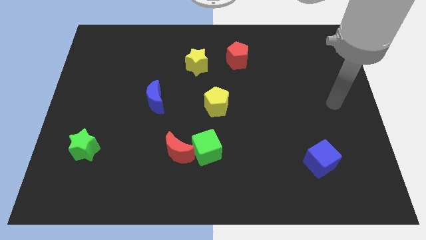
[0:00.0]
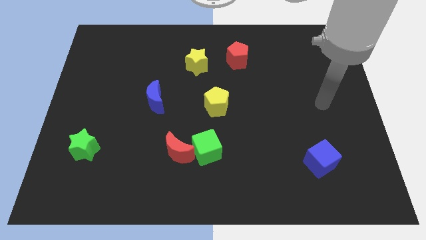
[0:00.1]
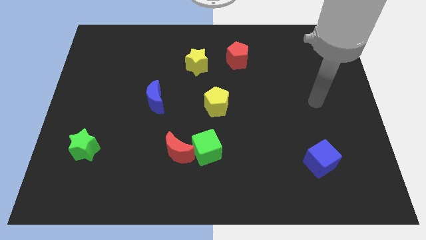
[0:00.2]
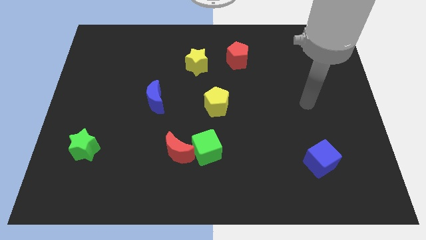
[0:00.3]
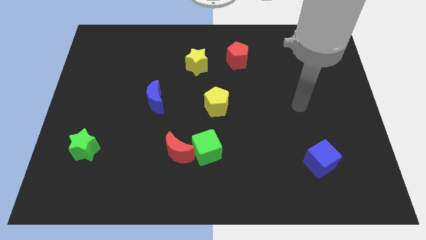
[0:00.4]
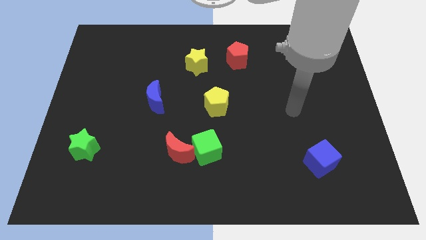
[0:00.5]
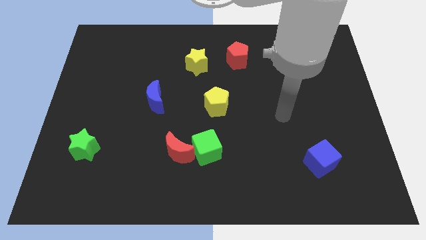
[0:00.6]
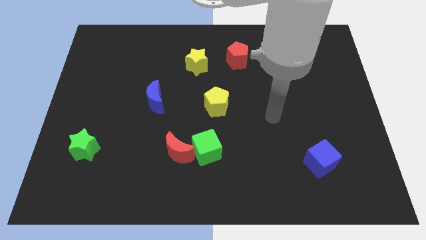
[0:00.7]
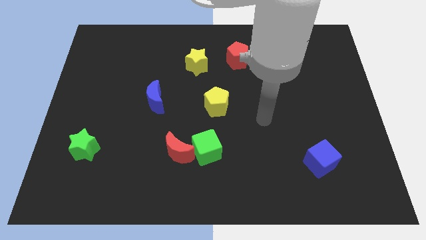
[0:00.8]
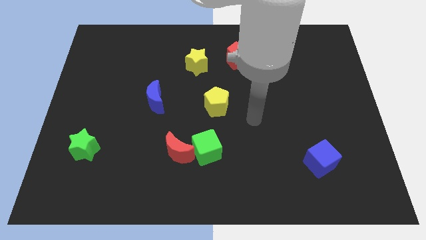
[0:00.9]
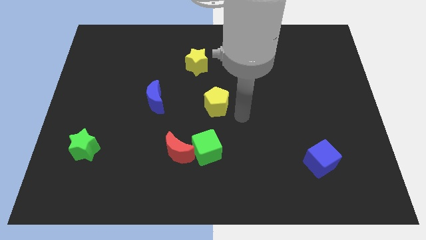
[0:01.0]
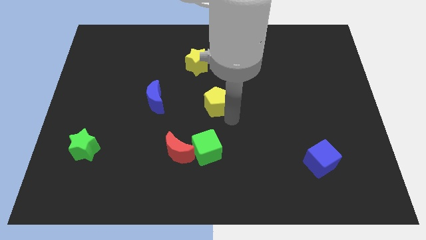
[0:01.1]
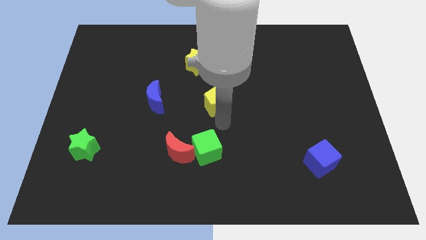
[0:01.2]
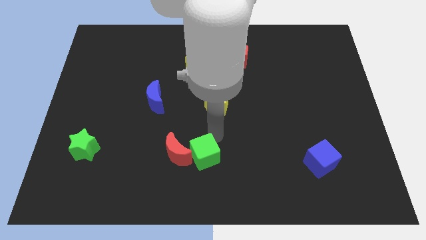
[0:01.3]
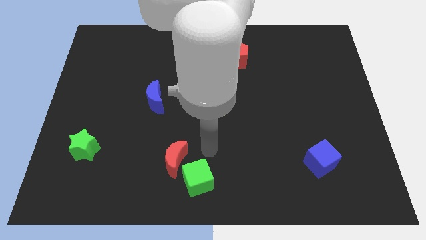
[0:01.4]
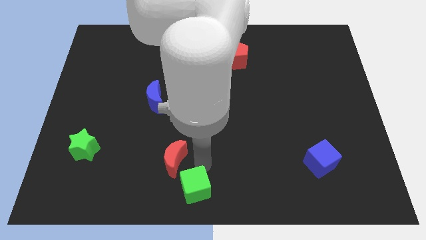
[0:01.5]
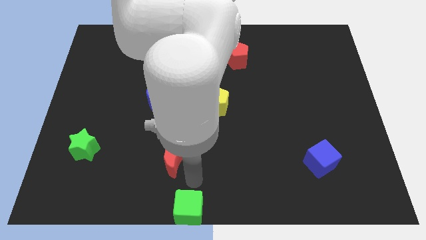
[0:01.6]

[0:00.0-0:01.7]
move the red moon away from the green cube

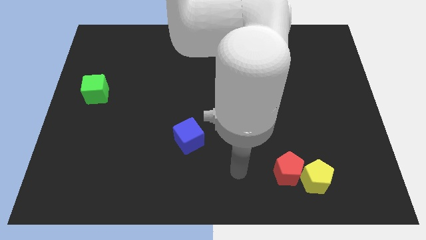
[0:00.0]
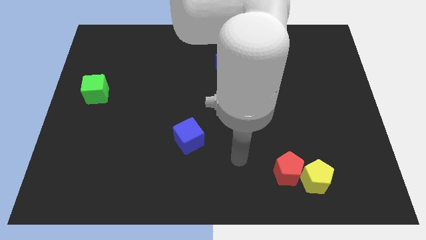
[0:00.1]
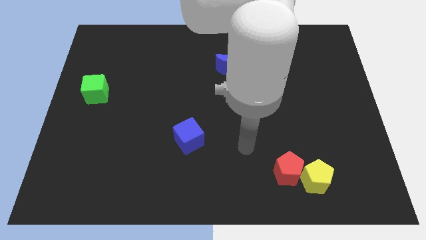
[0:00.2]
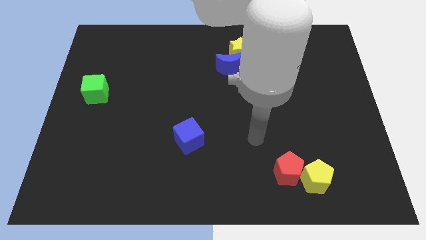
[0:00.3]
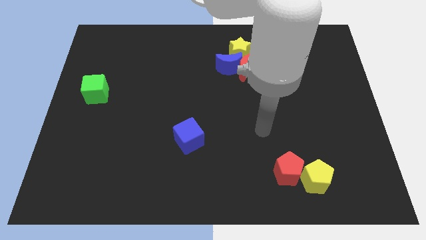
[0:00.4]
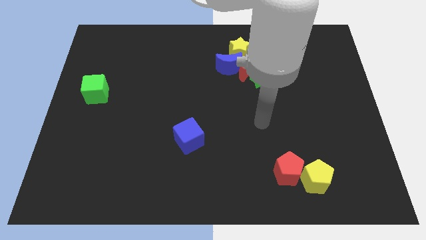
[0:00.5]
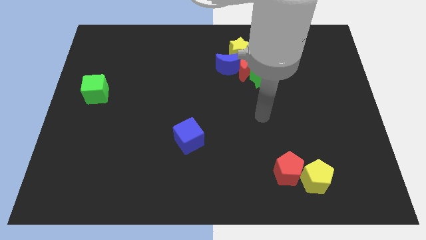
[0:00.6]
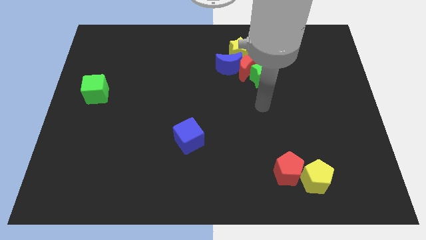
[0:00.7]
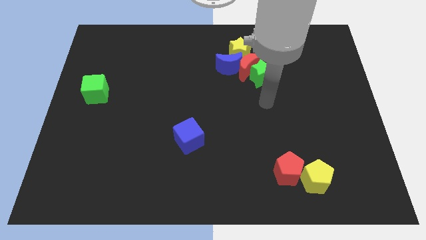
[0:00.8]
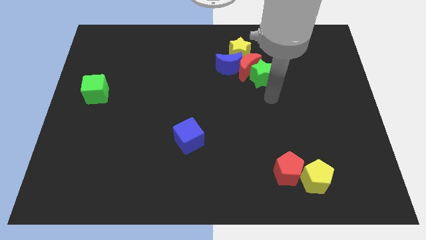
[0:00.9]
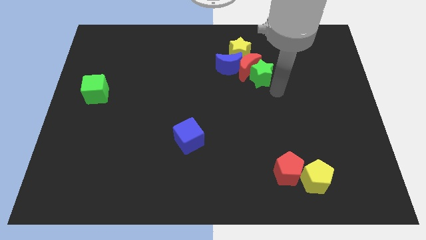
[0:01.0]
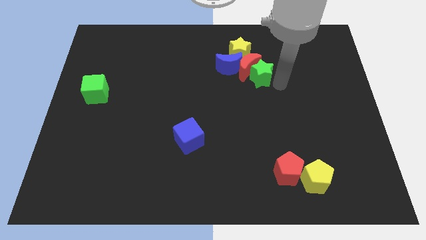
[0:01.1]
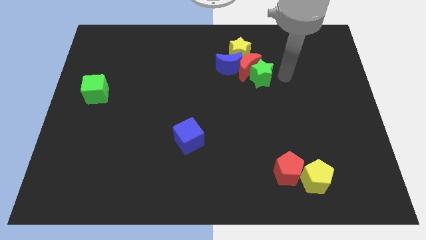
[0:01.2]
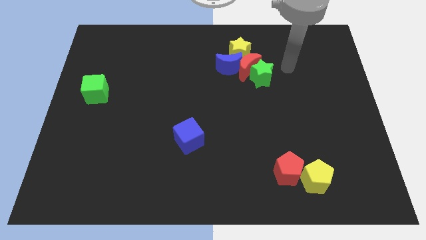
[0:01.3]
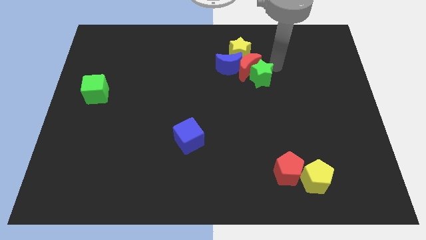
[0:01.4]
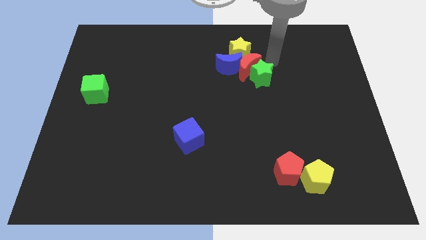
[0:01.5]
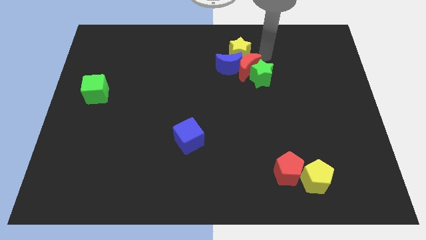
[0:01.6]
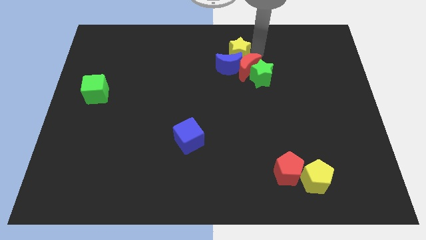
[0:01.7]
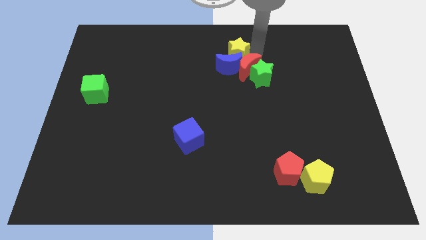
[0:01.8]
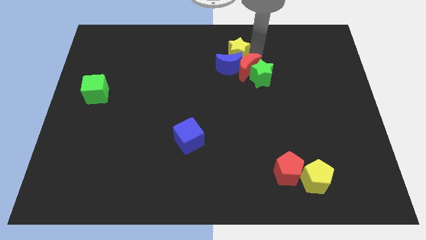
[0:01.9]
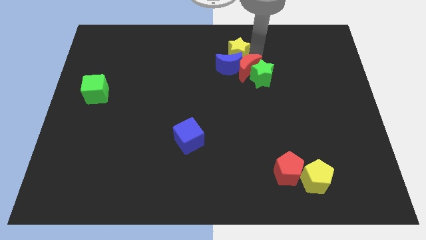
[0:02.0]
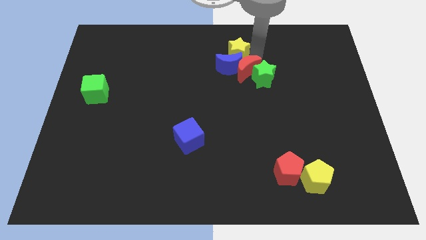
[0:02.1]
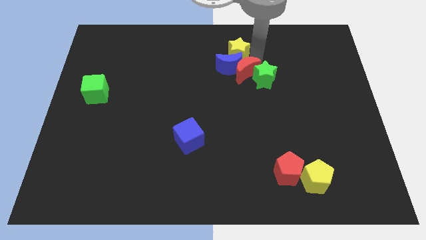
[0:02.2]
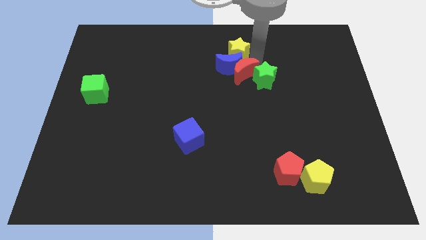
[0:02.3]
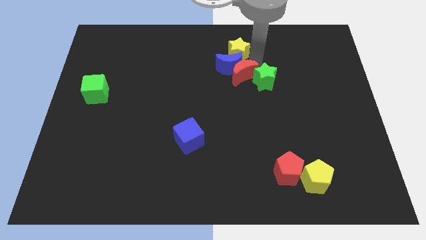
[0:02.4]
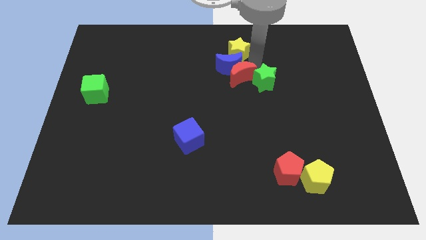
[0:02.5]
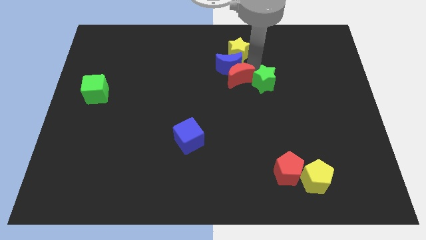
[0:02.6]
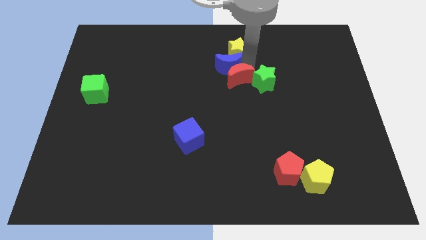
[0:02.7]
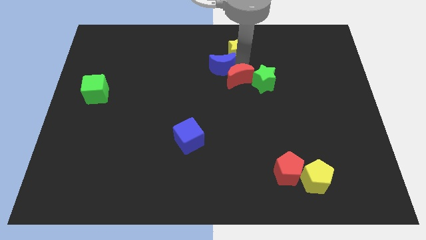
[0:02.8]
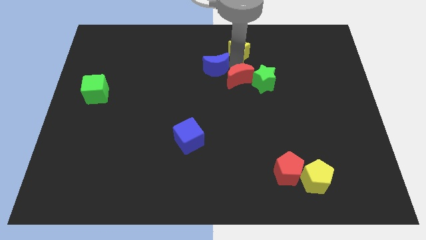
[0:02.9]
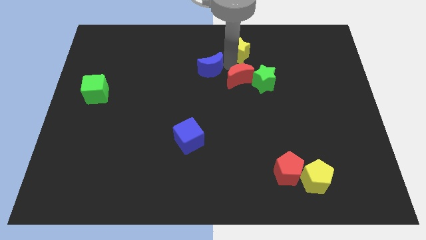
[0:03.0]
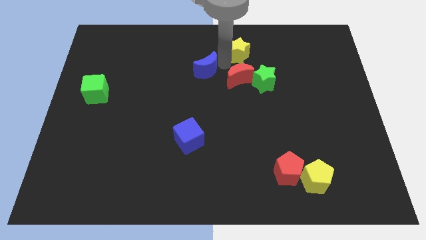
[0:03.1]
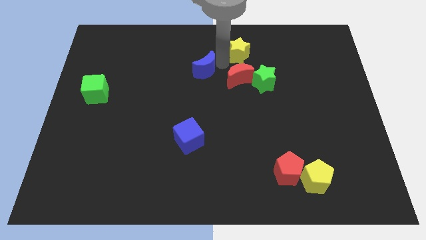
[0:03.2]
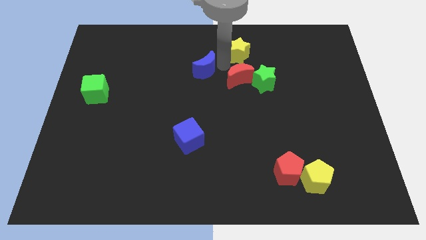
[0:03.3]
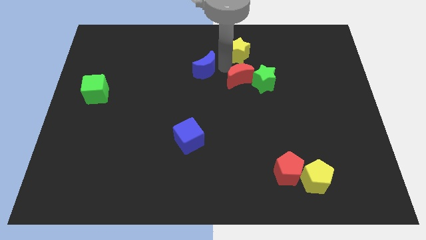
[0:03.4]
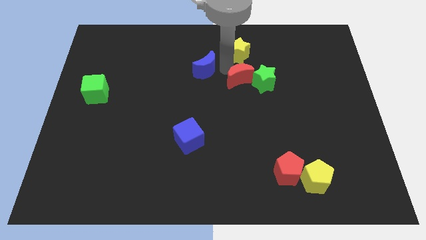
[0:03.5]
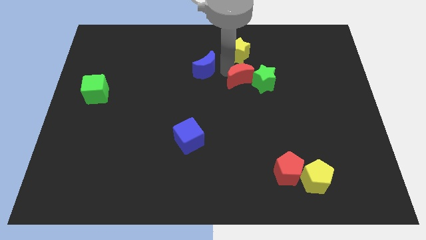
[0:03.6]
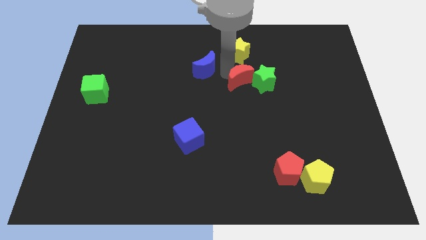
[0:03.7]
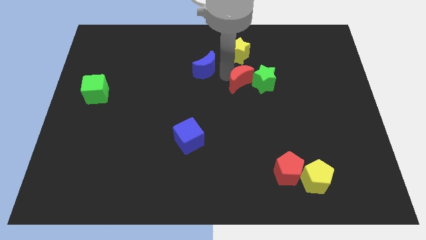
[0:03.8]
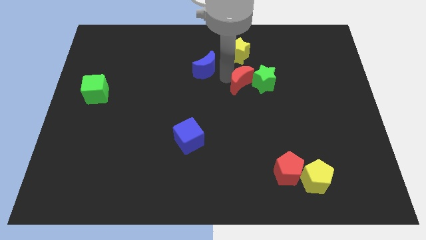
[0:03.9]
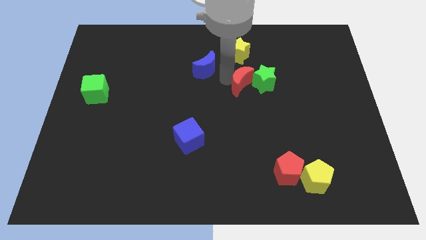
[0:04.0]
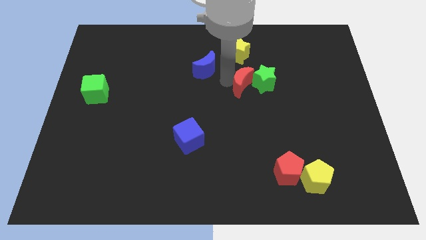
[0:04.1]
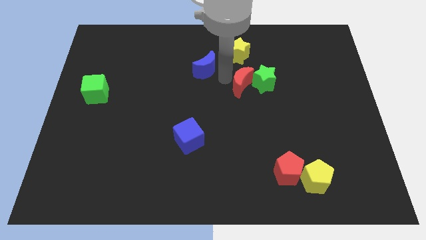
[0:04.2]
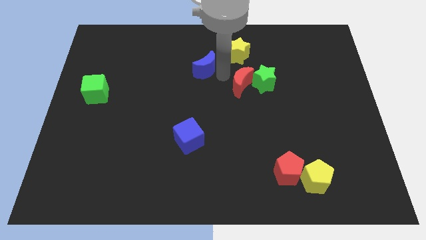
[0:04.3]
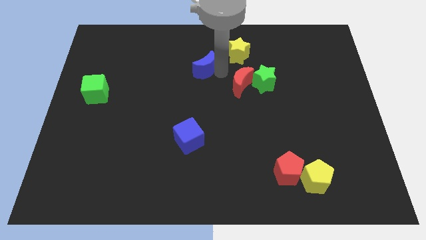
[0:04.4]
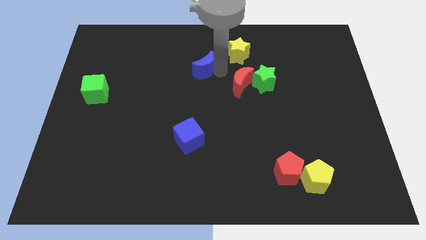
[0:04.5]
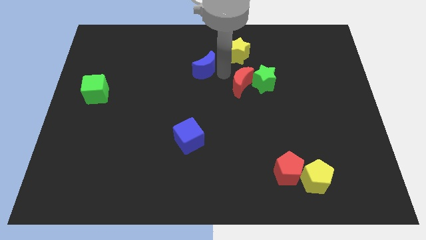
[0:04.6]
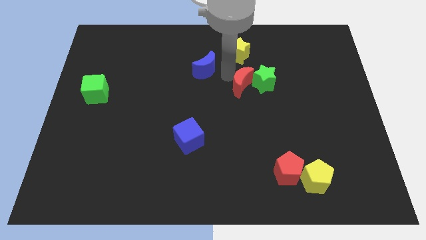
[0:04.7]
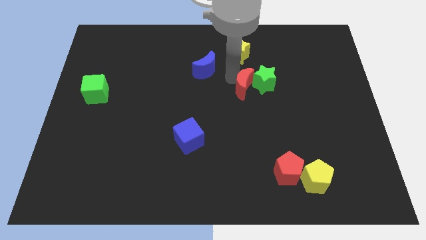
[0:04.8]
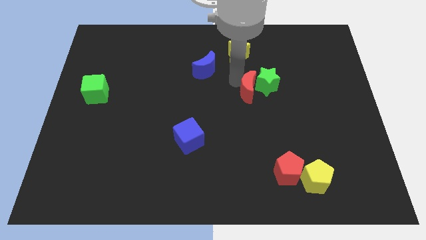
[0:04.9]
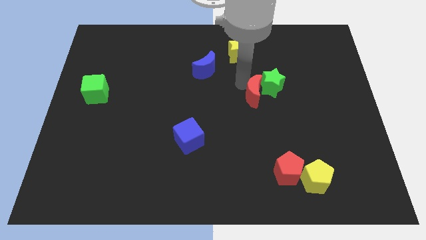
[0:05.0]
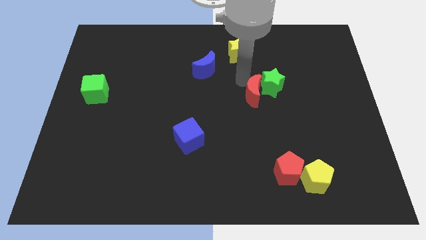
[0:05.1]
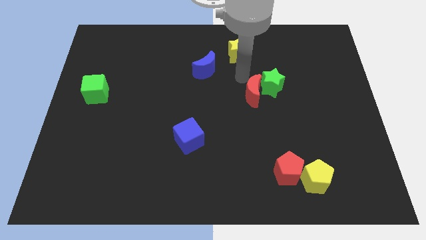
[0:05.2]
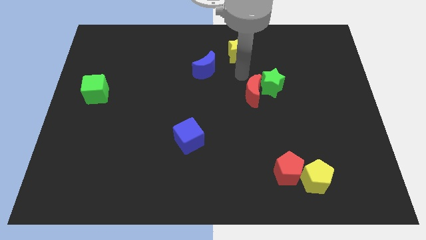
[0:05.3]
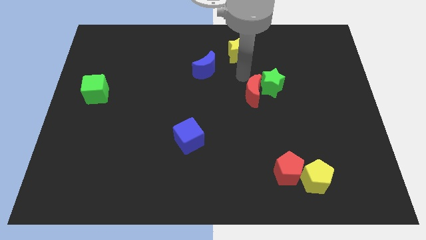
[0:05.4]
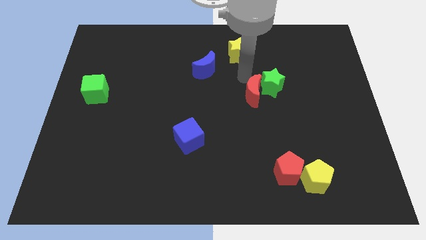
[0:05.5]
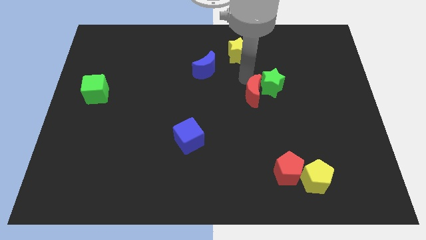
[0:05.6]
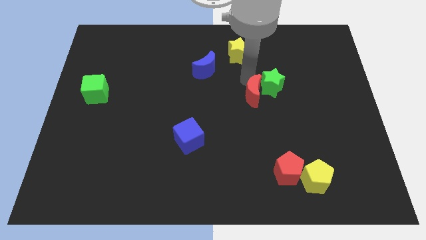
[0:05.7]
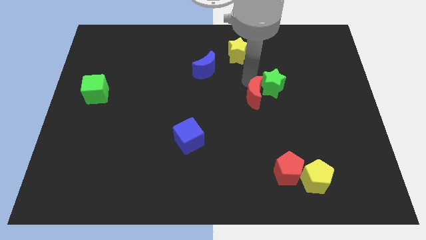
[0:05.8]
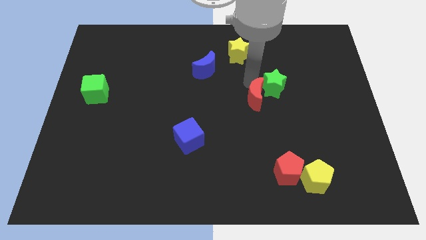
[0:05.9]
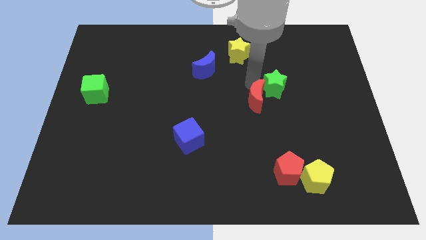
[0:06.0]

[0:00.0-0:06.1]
move the red moon away from the green star, blue moon, and yellow star

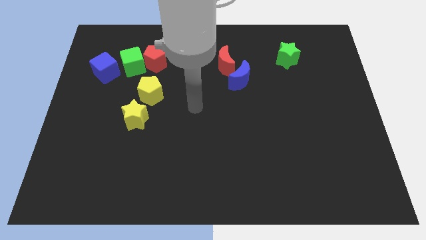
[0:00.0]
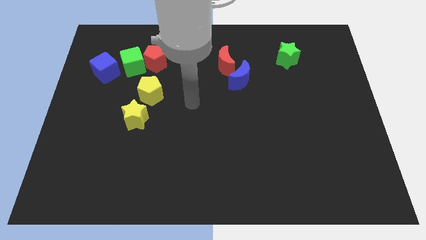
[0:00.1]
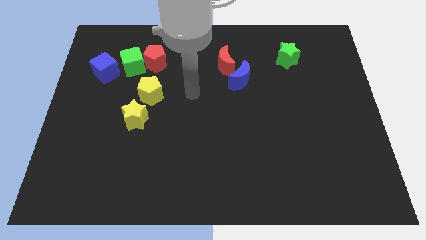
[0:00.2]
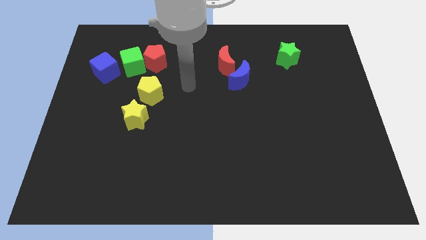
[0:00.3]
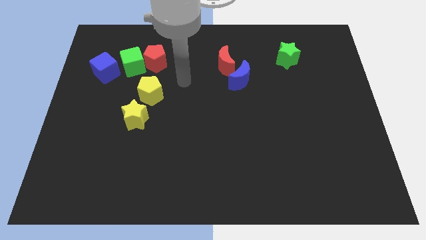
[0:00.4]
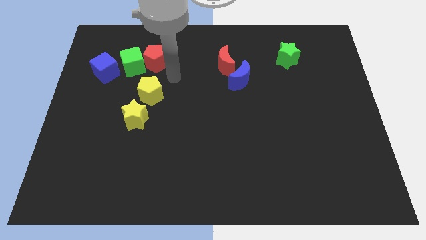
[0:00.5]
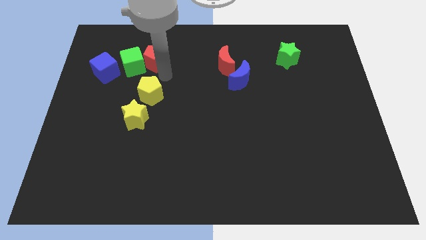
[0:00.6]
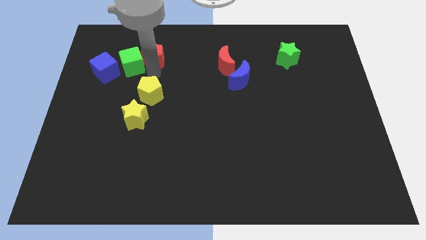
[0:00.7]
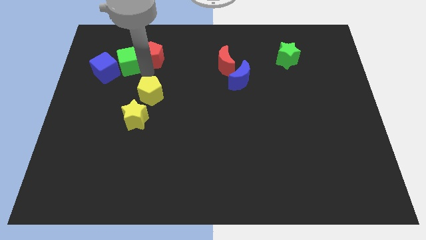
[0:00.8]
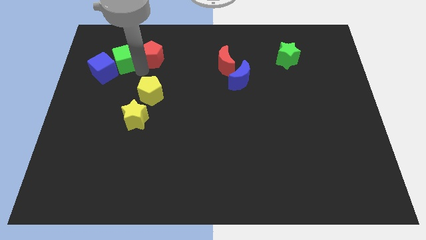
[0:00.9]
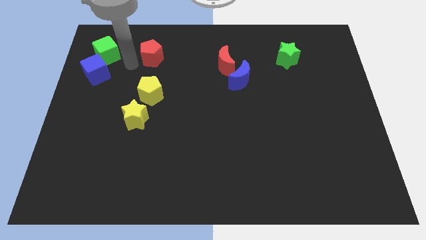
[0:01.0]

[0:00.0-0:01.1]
separate the red pentagon from the green cube

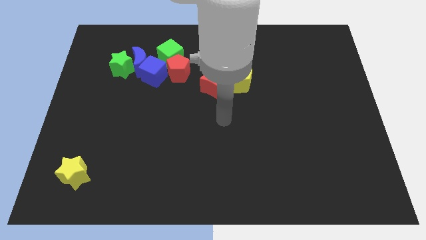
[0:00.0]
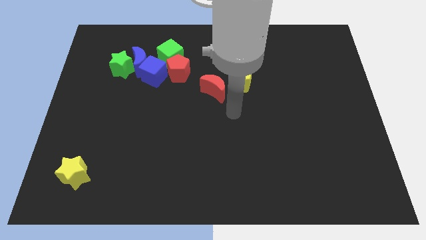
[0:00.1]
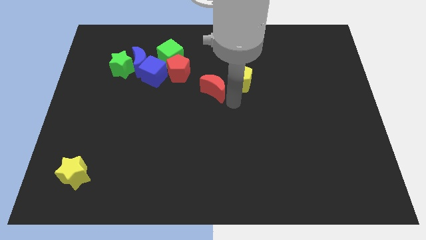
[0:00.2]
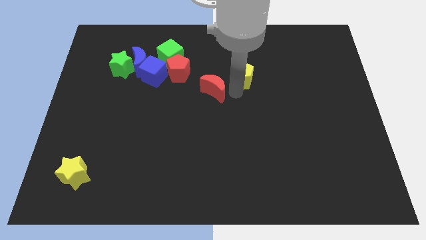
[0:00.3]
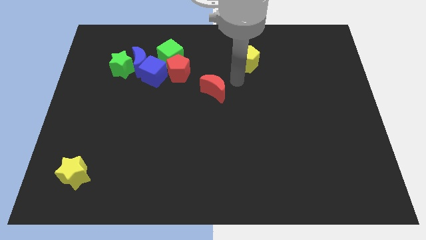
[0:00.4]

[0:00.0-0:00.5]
separate the red moon from the yellow pentagon
